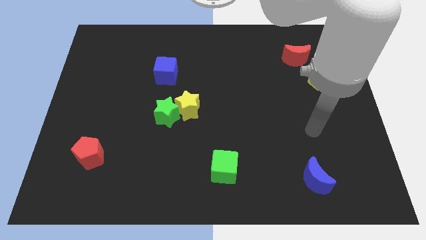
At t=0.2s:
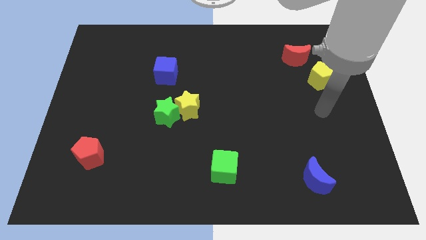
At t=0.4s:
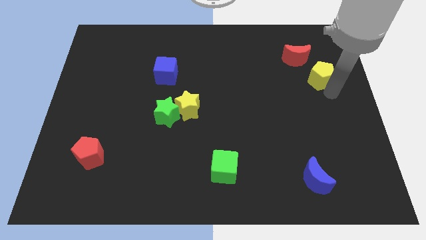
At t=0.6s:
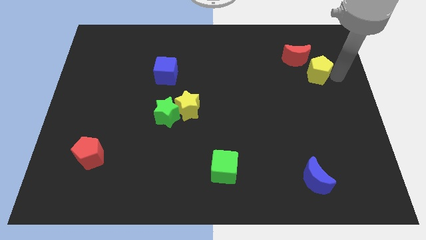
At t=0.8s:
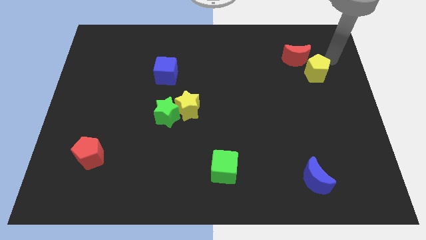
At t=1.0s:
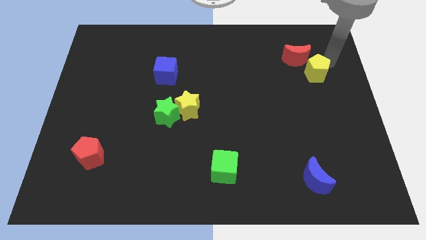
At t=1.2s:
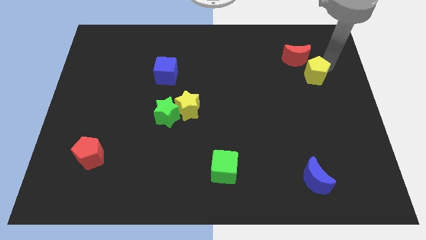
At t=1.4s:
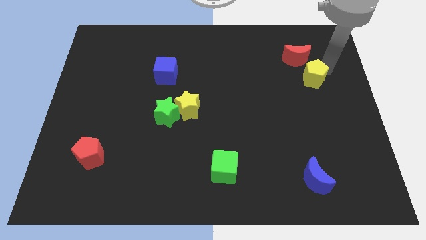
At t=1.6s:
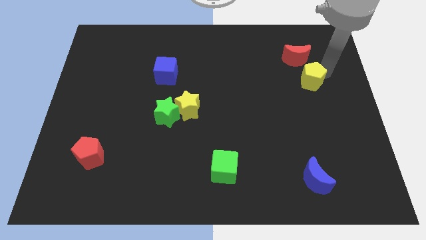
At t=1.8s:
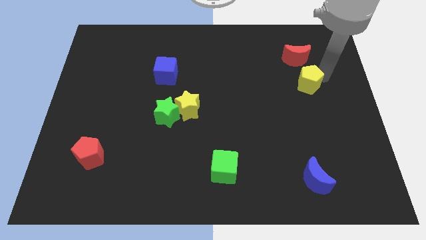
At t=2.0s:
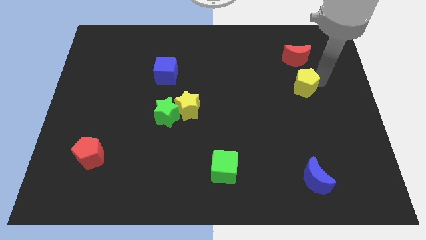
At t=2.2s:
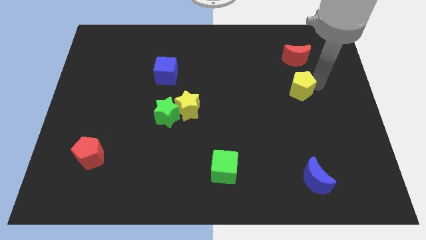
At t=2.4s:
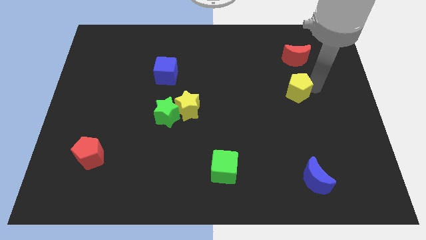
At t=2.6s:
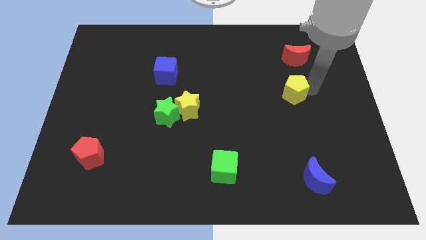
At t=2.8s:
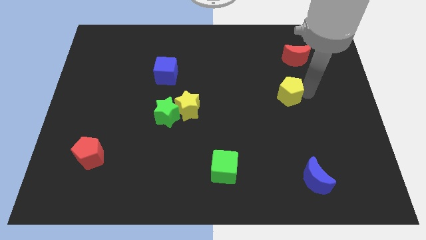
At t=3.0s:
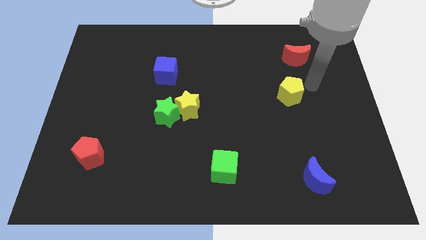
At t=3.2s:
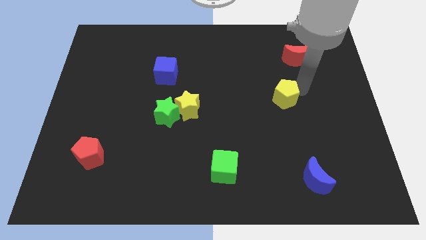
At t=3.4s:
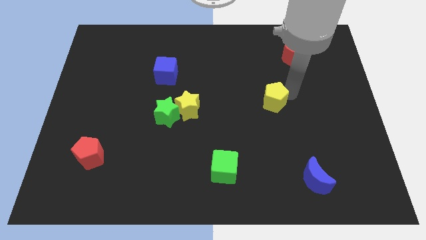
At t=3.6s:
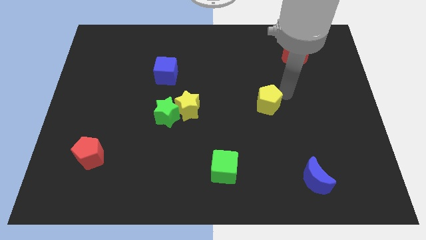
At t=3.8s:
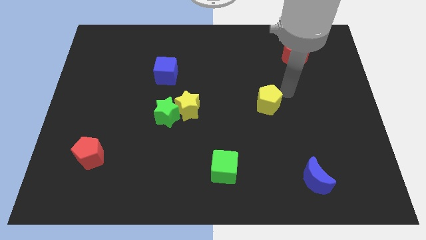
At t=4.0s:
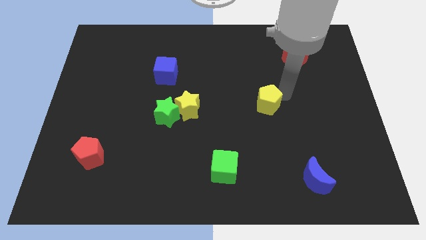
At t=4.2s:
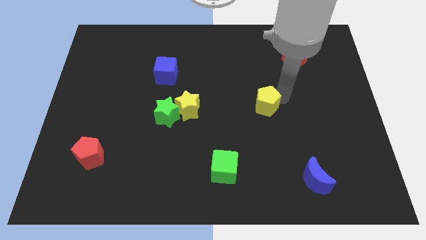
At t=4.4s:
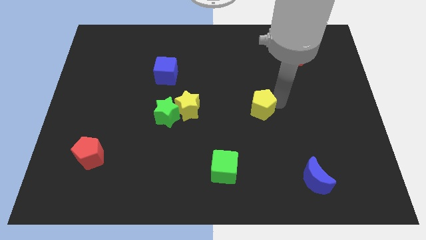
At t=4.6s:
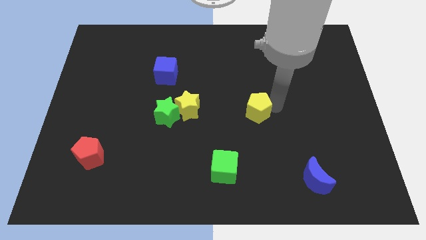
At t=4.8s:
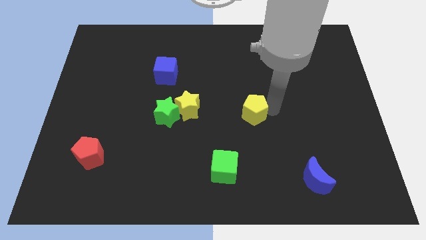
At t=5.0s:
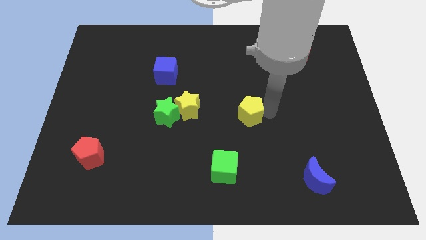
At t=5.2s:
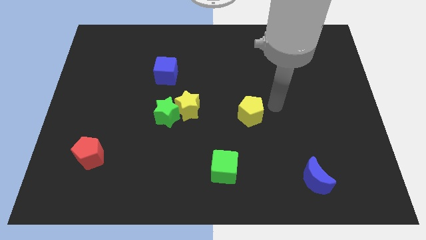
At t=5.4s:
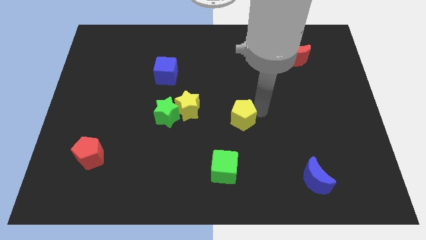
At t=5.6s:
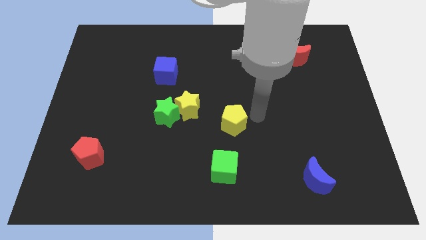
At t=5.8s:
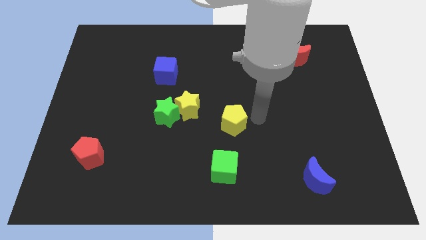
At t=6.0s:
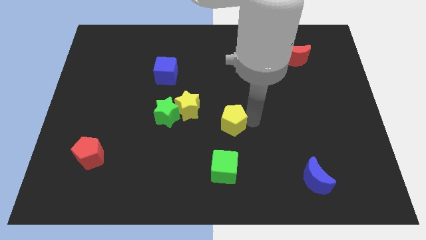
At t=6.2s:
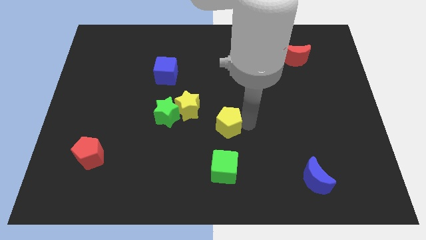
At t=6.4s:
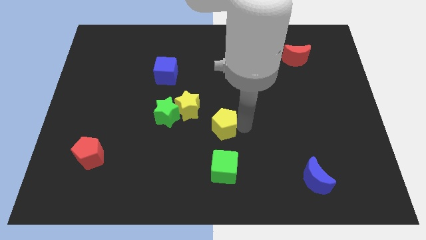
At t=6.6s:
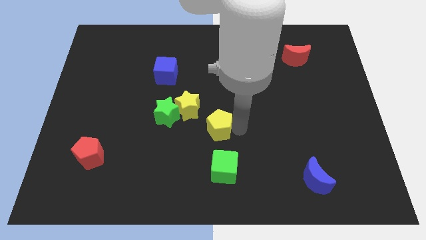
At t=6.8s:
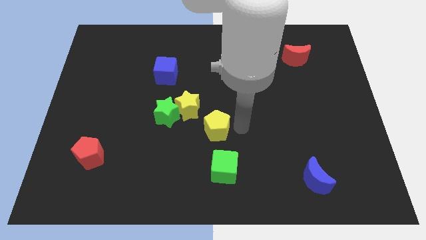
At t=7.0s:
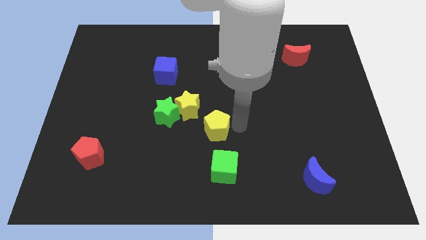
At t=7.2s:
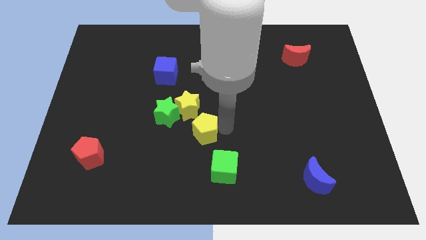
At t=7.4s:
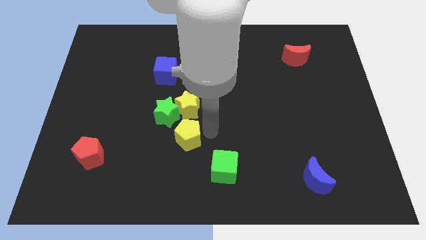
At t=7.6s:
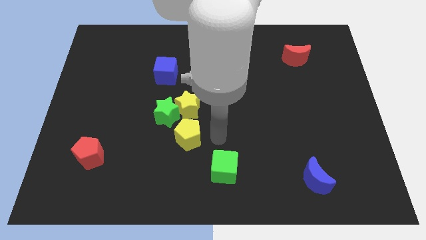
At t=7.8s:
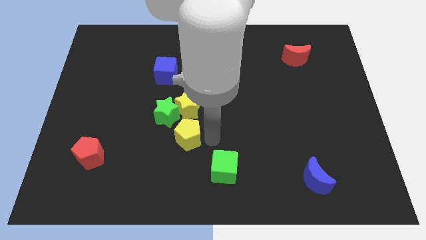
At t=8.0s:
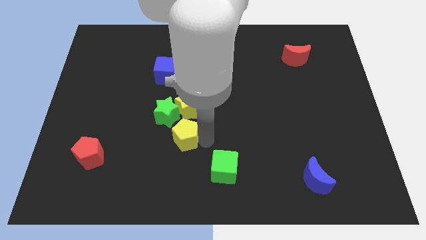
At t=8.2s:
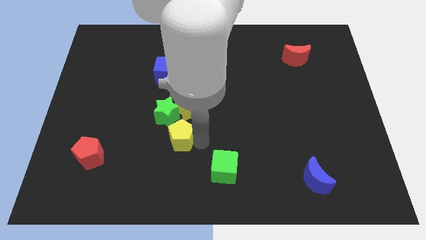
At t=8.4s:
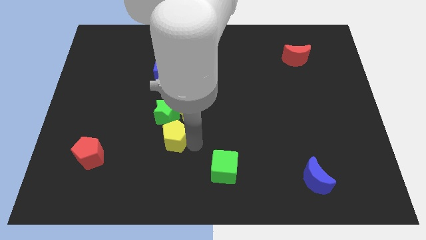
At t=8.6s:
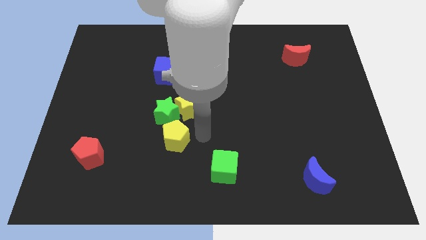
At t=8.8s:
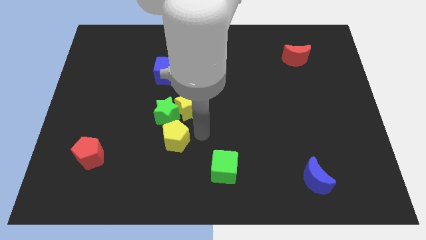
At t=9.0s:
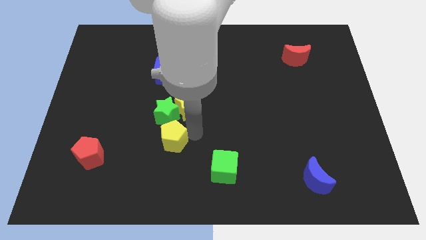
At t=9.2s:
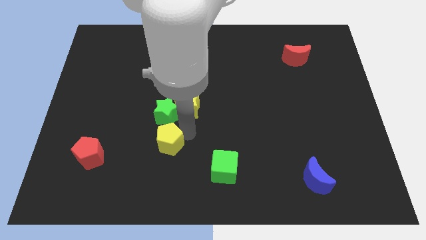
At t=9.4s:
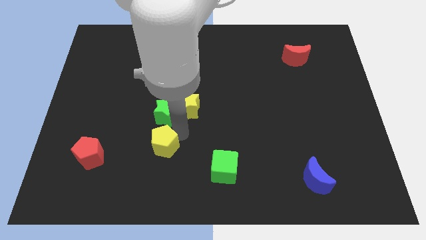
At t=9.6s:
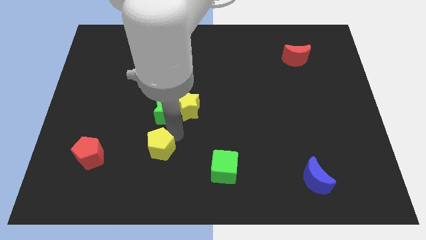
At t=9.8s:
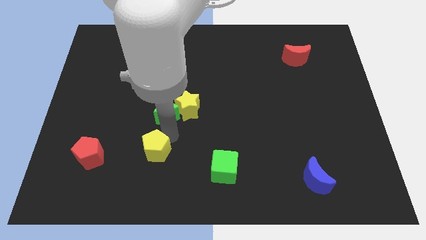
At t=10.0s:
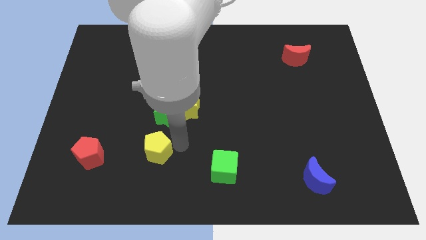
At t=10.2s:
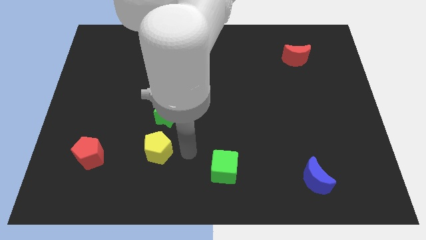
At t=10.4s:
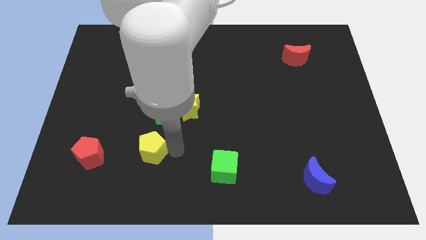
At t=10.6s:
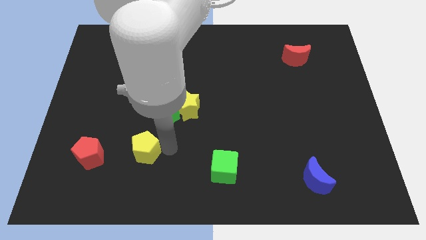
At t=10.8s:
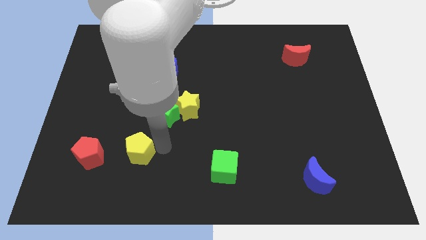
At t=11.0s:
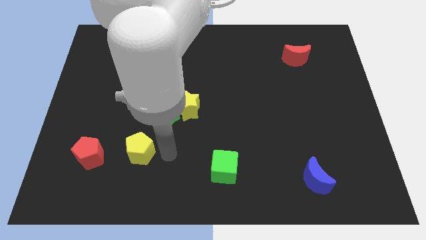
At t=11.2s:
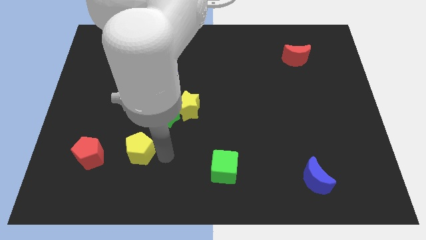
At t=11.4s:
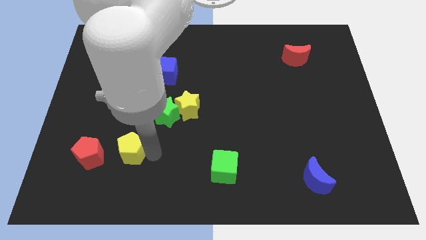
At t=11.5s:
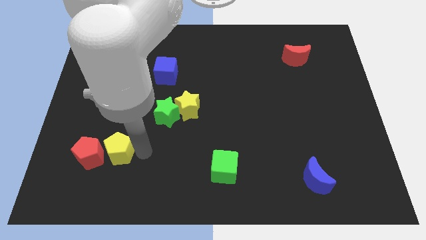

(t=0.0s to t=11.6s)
slide the yellow pentagon to the red pentagon

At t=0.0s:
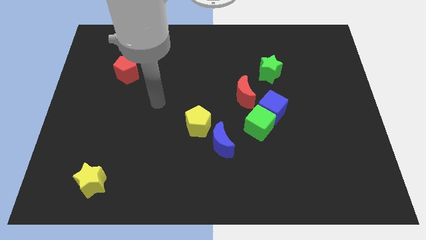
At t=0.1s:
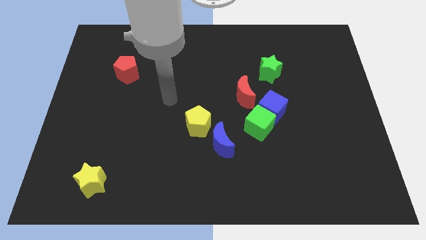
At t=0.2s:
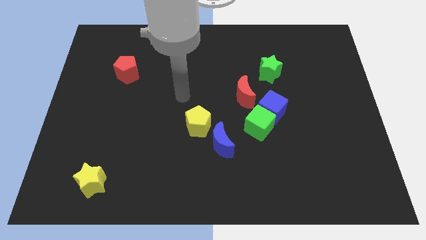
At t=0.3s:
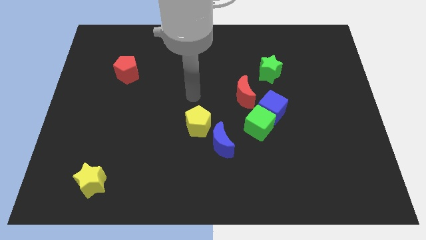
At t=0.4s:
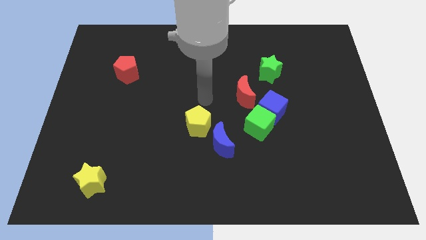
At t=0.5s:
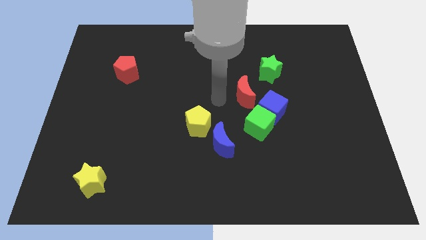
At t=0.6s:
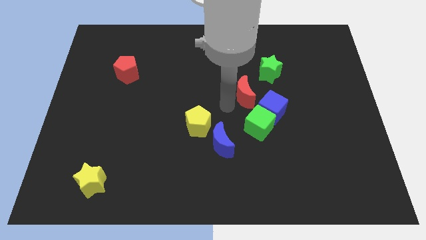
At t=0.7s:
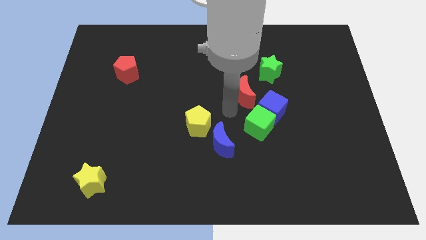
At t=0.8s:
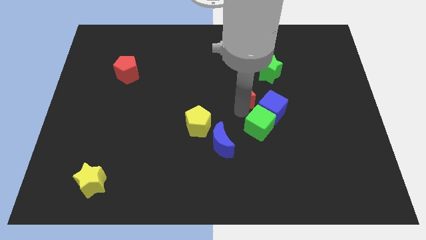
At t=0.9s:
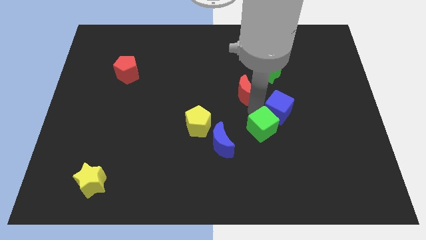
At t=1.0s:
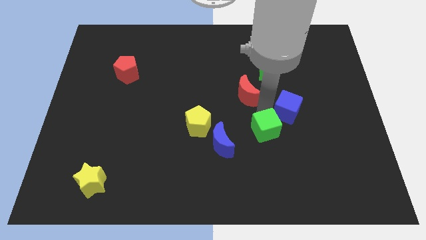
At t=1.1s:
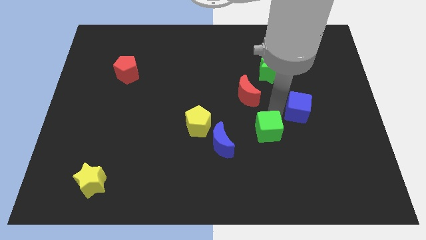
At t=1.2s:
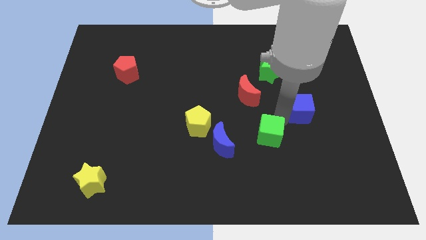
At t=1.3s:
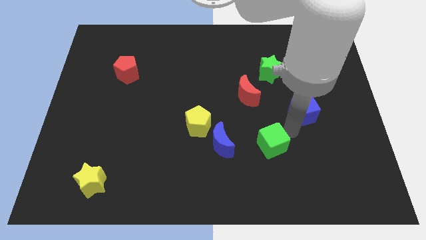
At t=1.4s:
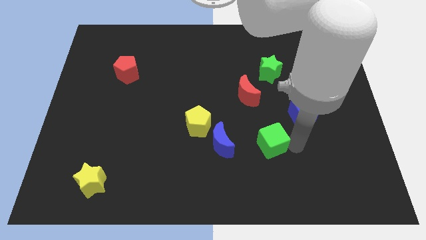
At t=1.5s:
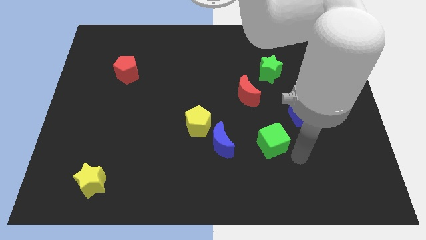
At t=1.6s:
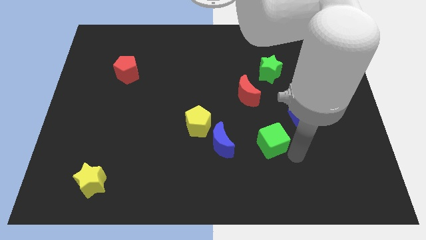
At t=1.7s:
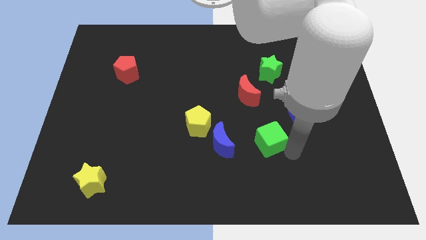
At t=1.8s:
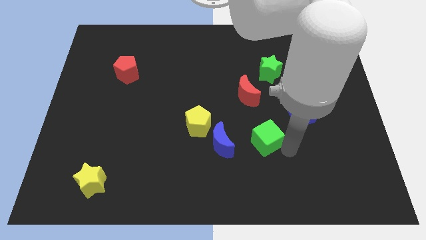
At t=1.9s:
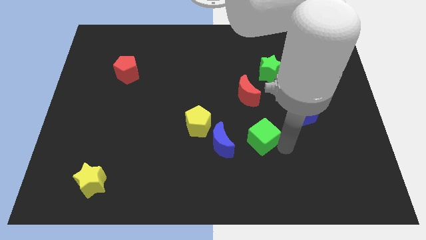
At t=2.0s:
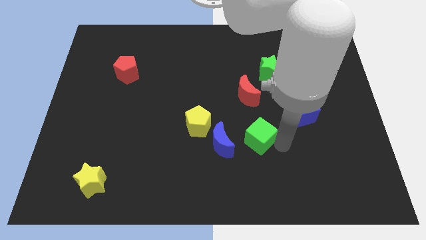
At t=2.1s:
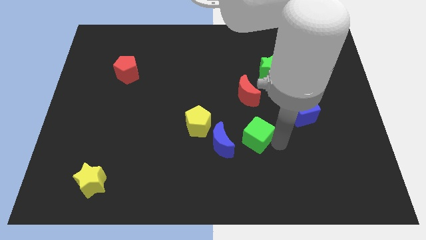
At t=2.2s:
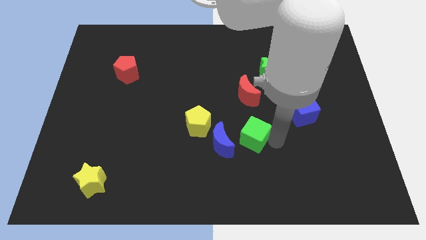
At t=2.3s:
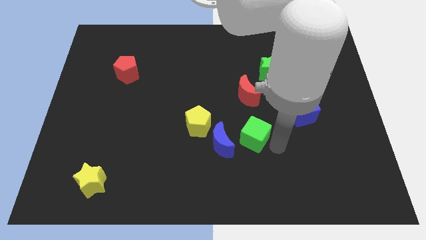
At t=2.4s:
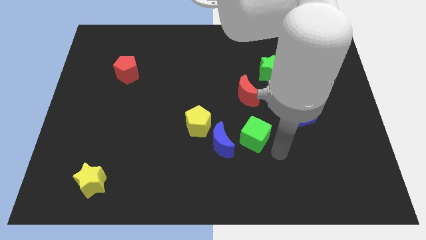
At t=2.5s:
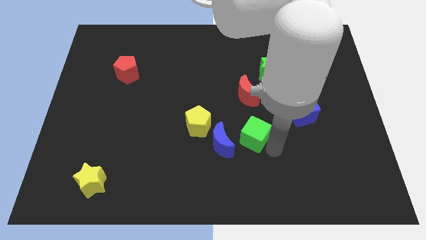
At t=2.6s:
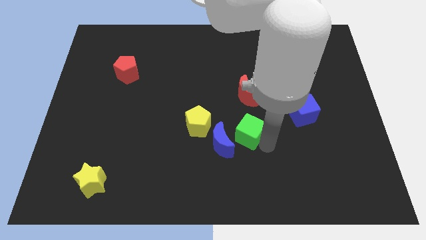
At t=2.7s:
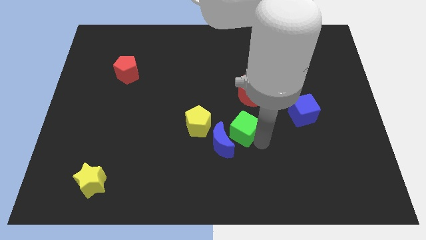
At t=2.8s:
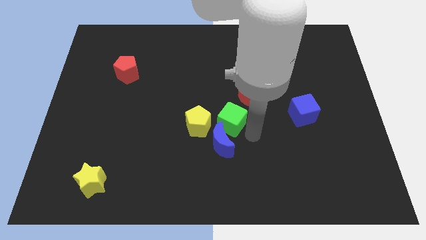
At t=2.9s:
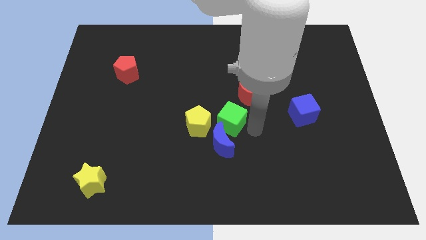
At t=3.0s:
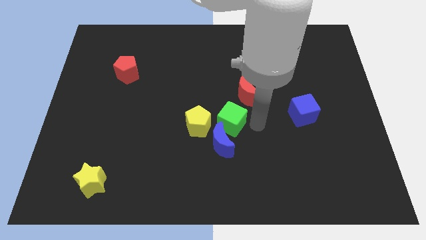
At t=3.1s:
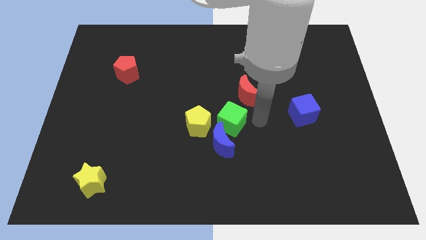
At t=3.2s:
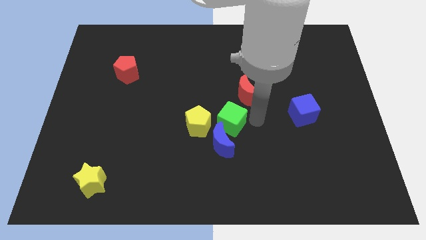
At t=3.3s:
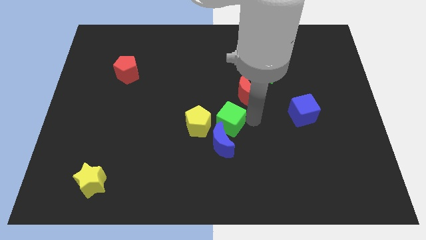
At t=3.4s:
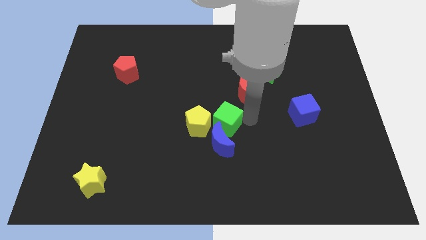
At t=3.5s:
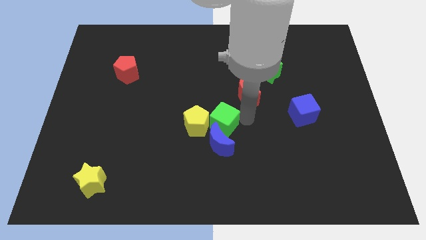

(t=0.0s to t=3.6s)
move the green cube close to the yellow pentagon
